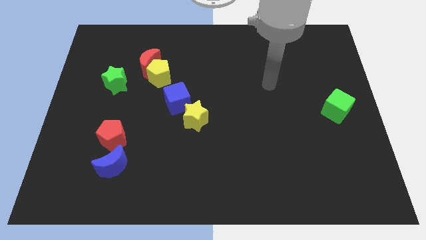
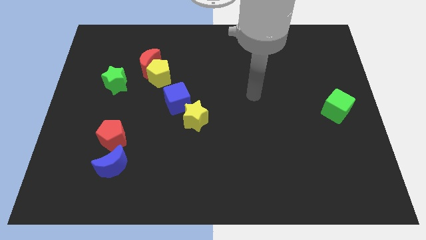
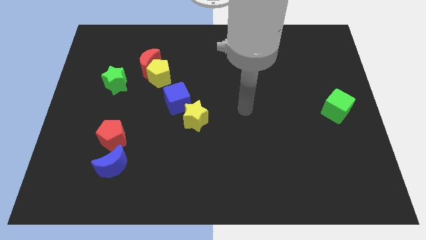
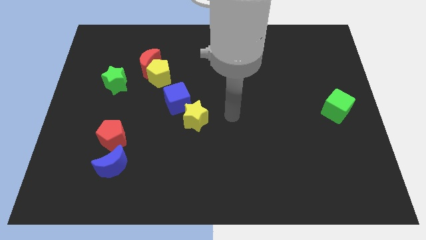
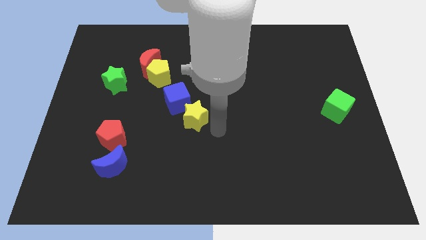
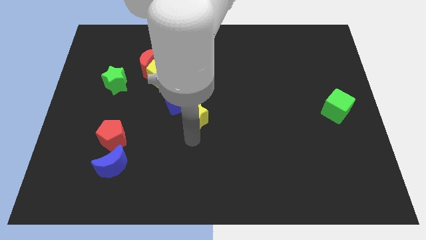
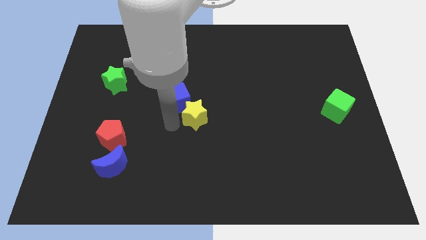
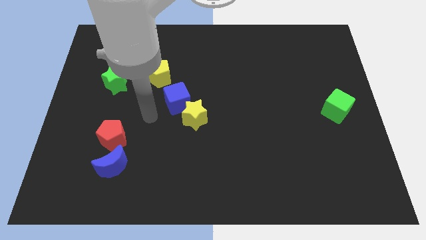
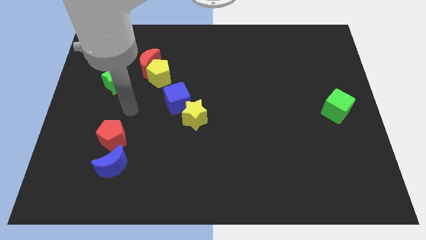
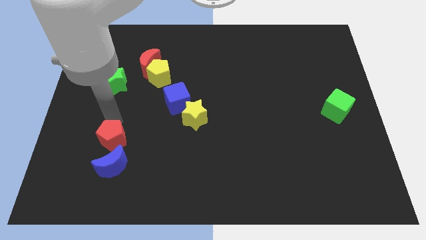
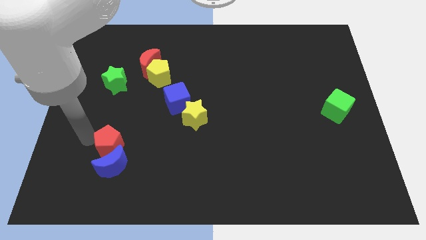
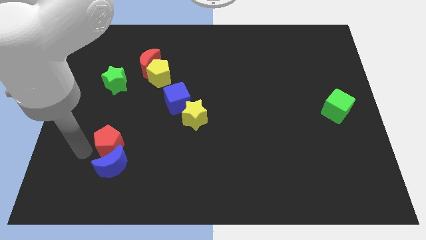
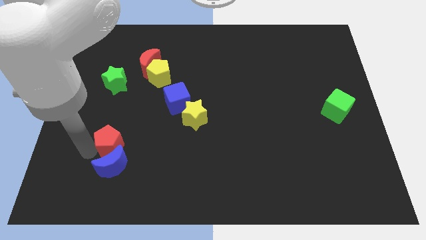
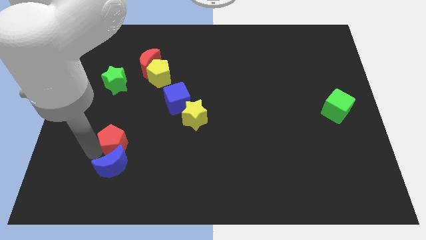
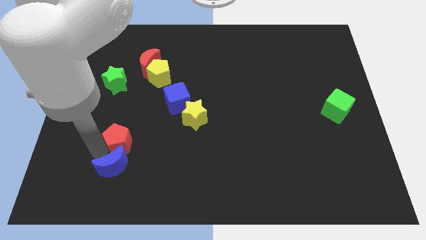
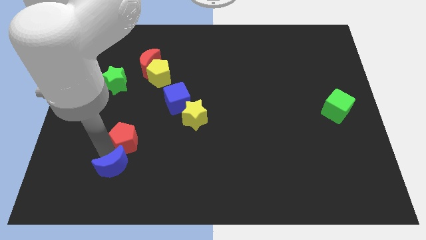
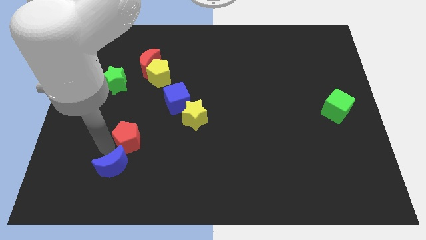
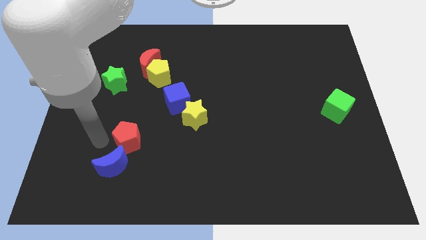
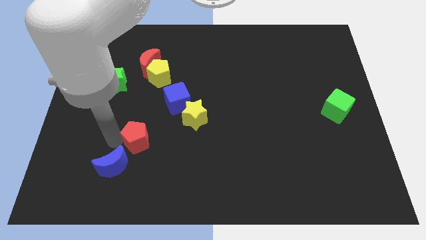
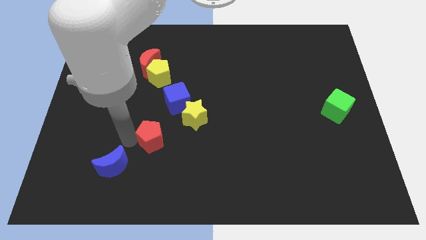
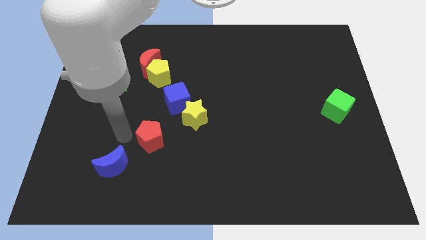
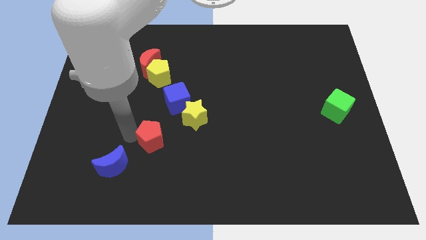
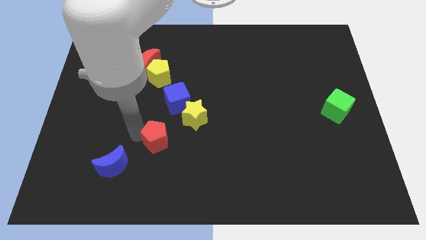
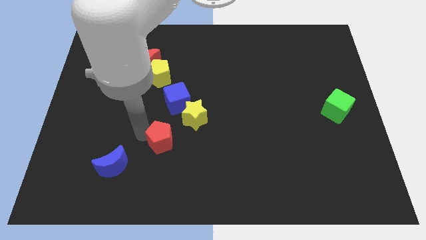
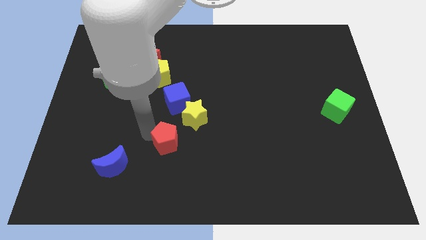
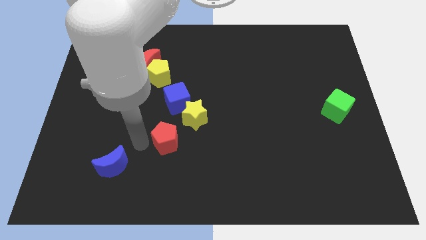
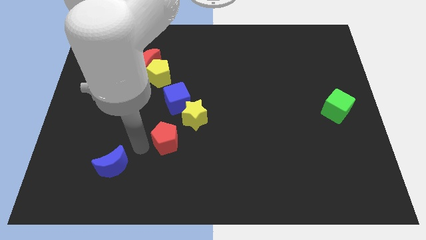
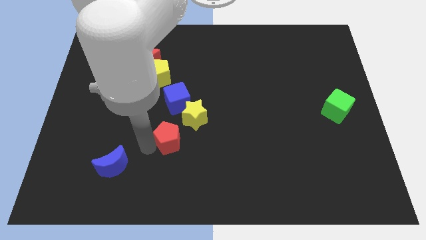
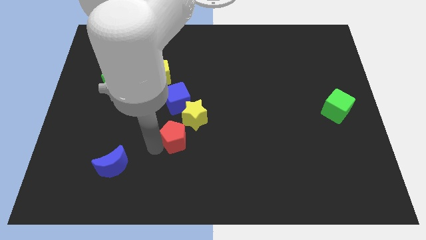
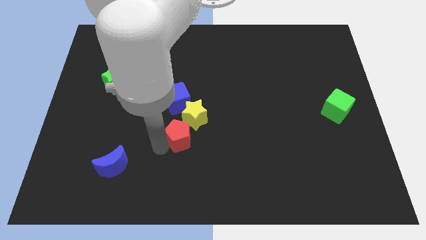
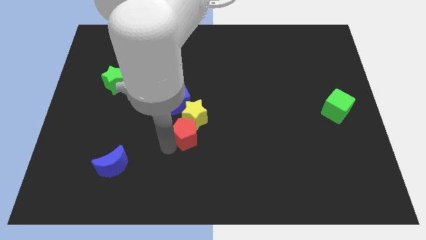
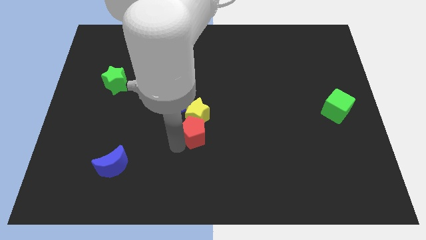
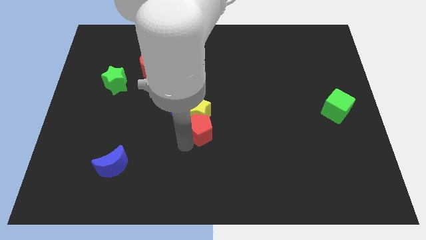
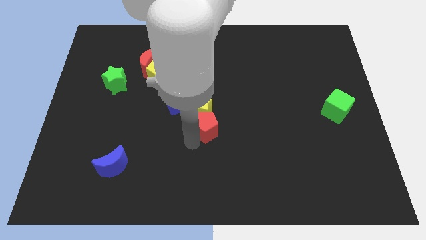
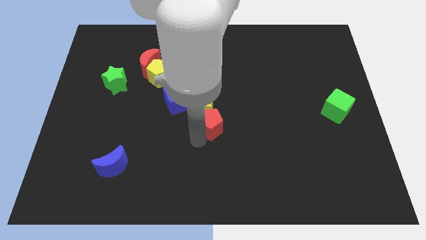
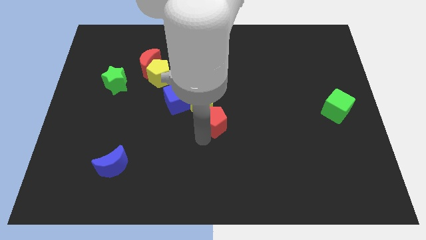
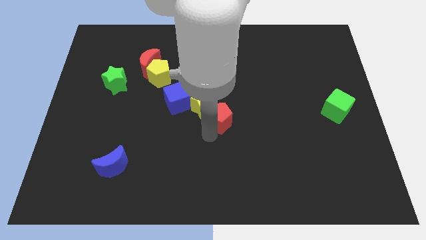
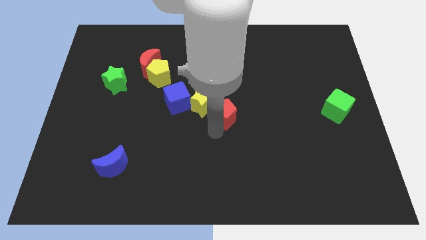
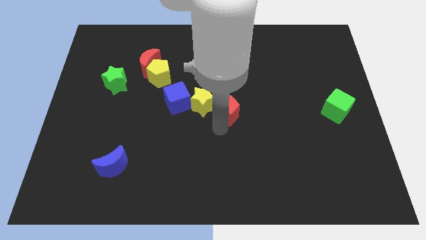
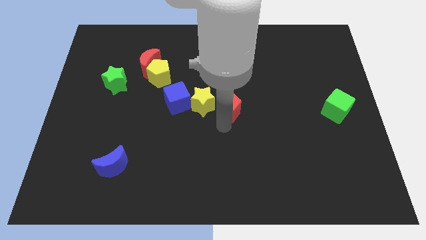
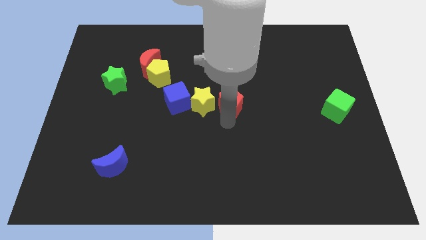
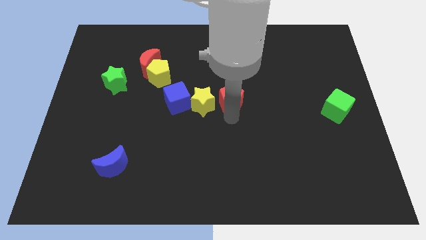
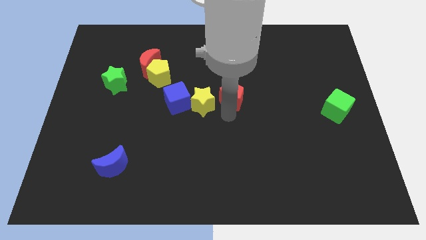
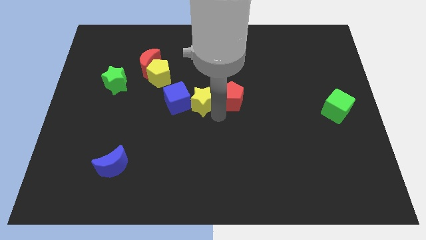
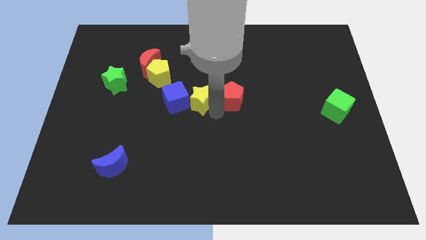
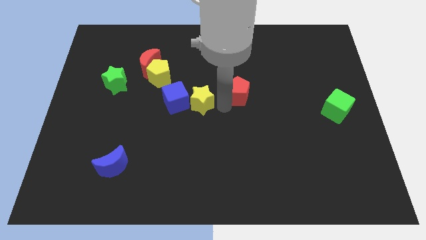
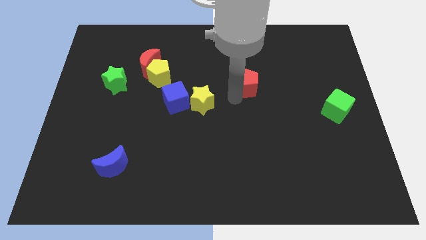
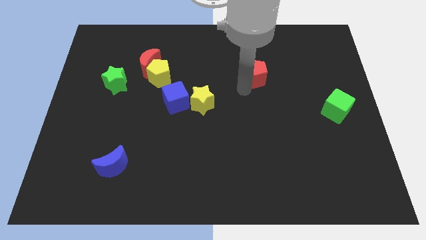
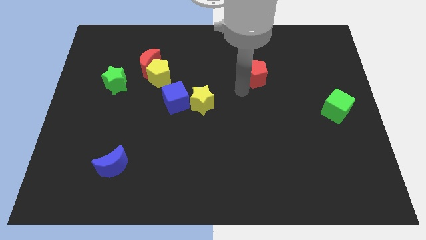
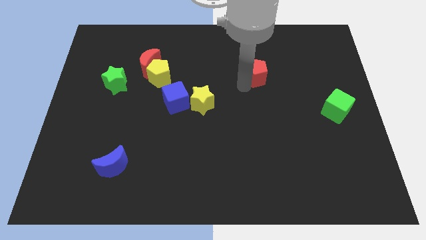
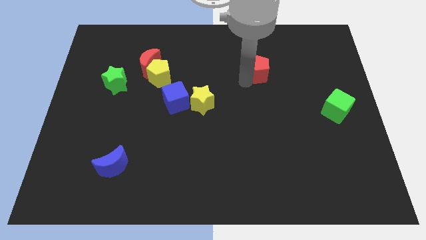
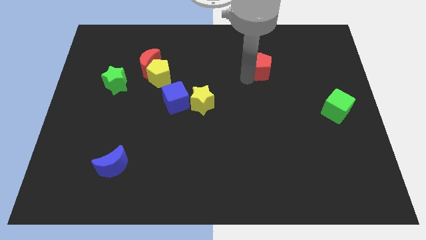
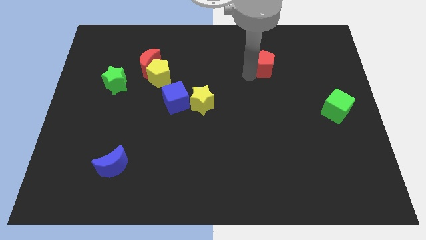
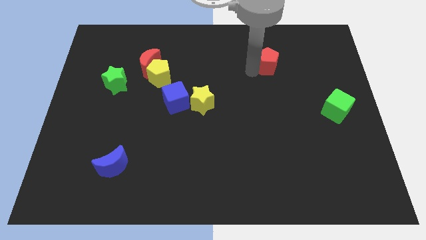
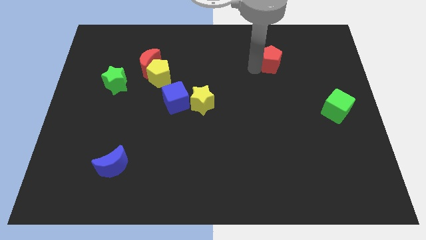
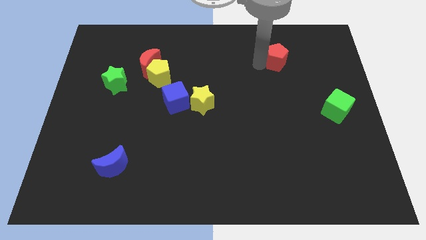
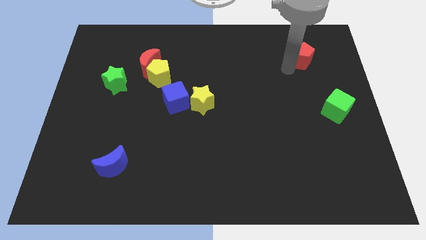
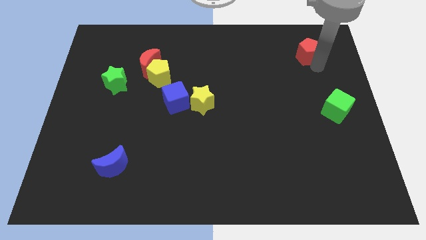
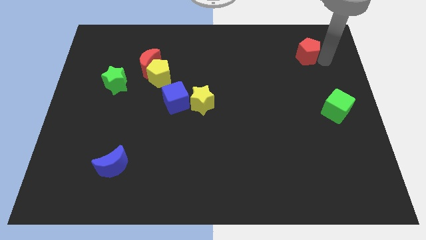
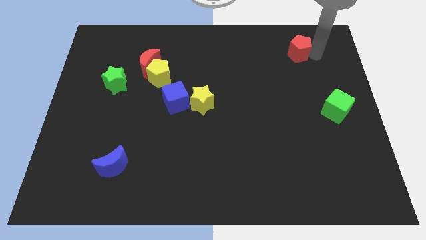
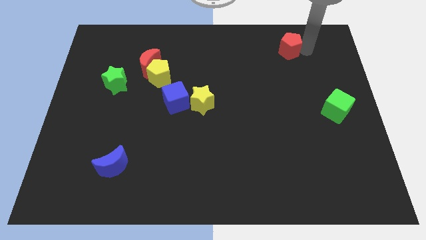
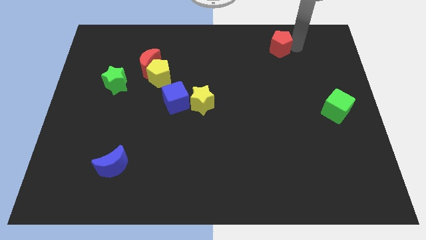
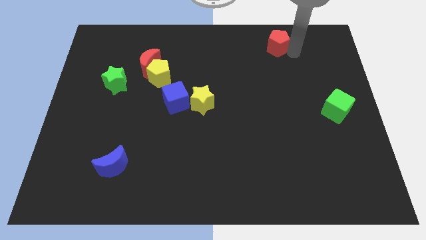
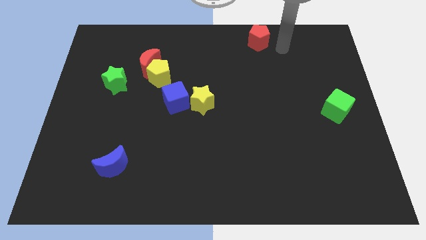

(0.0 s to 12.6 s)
push the red pentagon to the top side

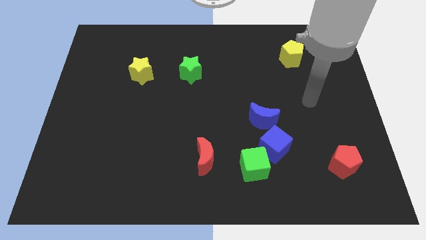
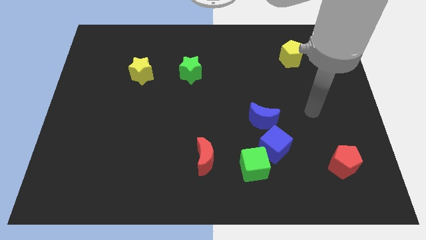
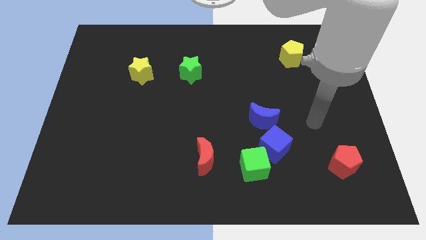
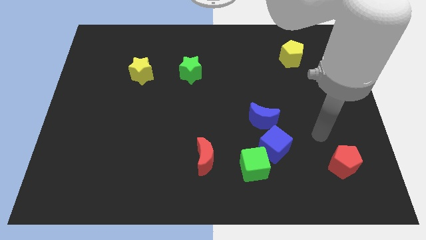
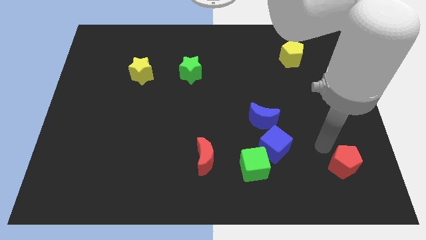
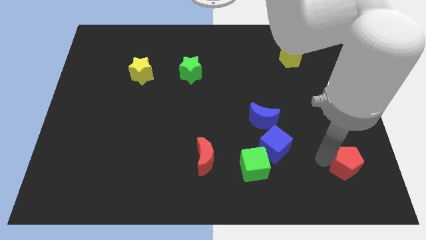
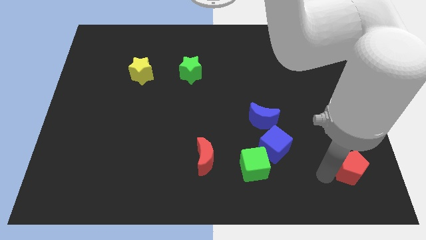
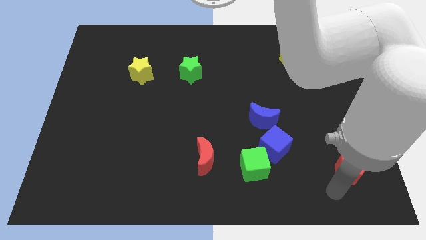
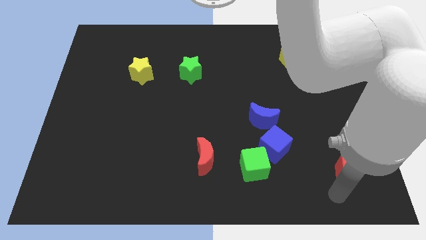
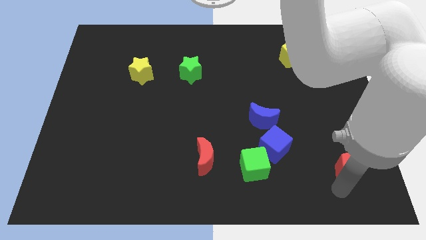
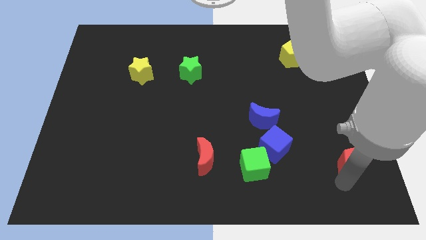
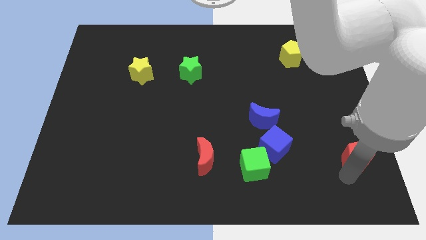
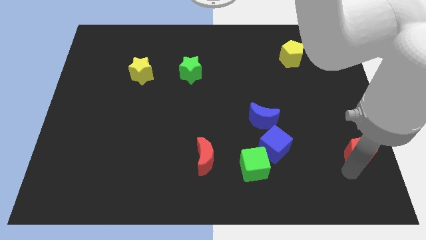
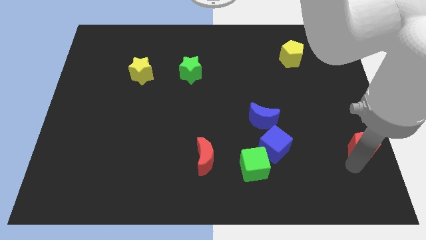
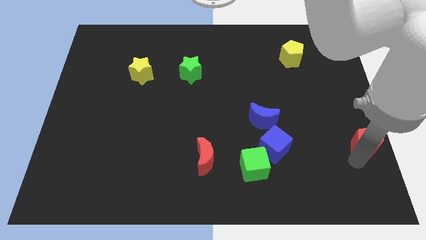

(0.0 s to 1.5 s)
move the red pentagon to the right side
